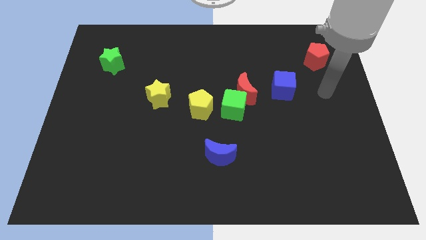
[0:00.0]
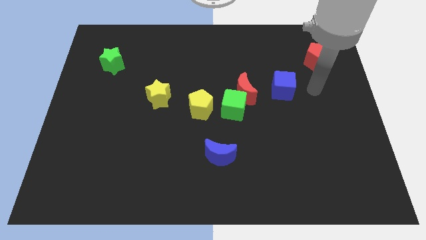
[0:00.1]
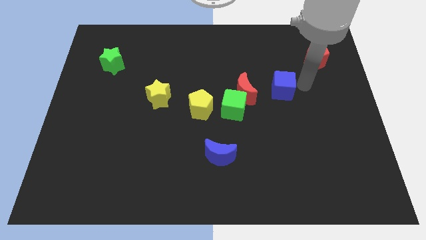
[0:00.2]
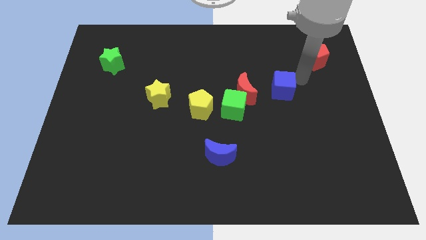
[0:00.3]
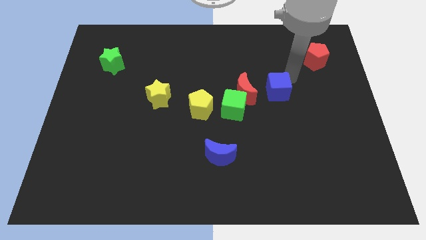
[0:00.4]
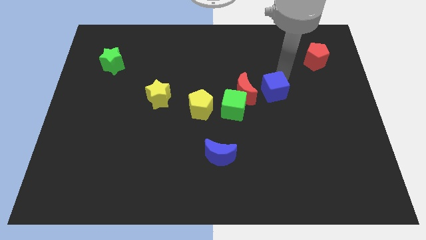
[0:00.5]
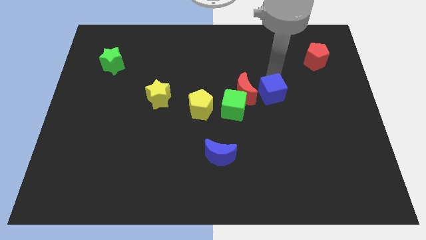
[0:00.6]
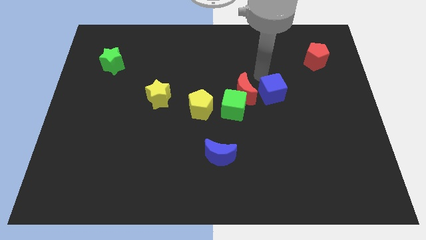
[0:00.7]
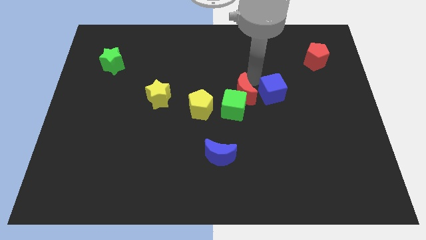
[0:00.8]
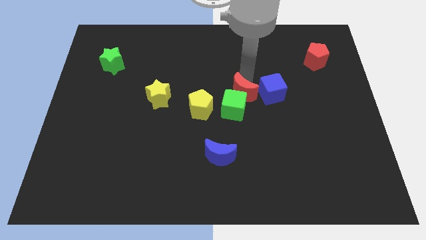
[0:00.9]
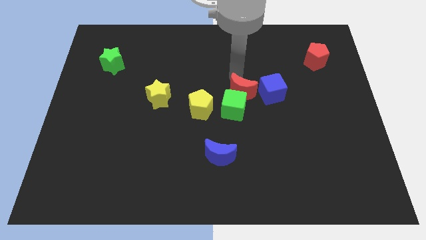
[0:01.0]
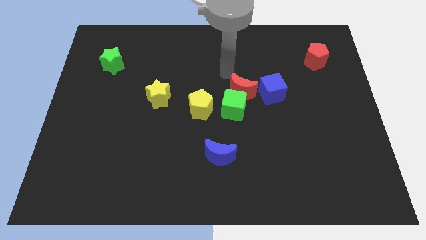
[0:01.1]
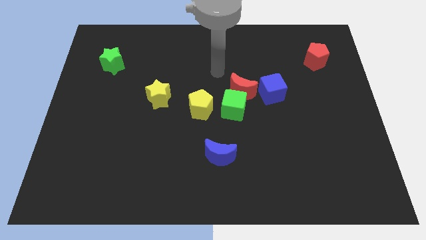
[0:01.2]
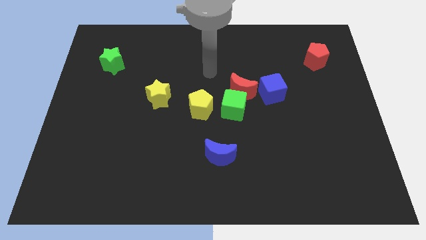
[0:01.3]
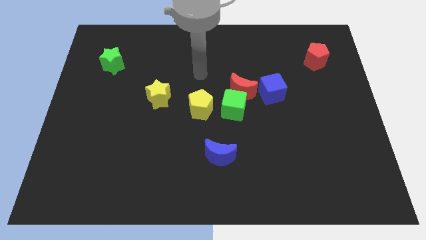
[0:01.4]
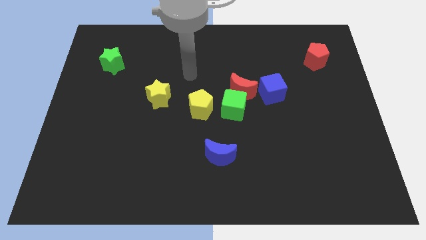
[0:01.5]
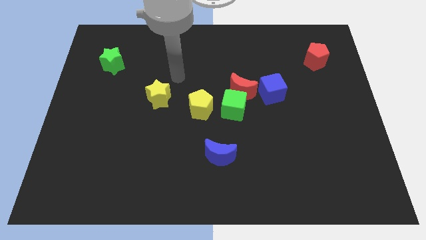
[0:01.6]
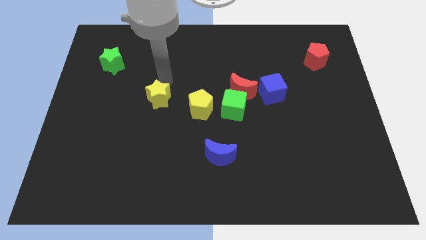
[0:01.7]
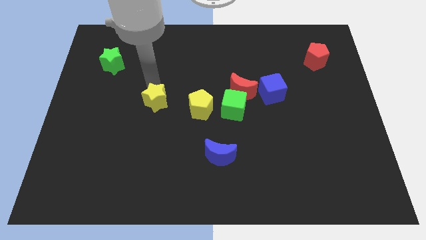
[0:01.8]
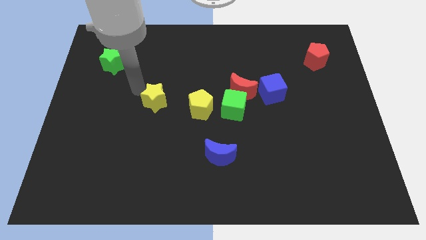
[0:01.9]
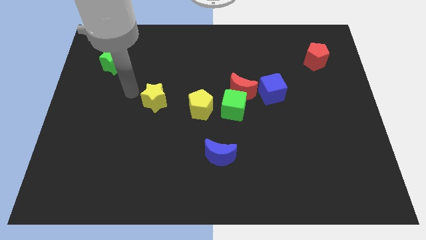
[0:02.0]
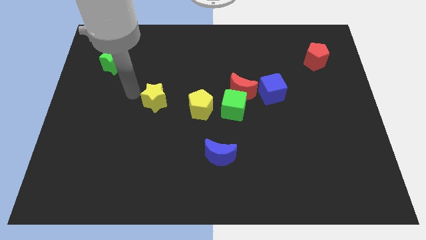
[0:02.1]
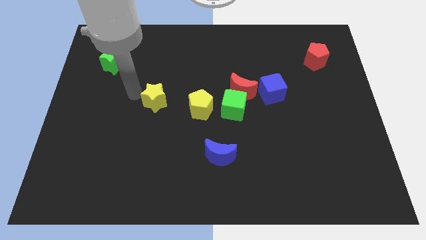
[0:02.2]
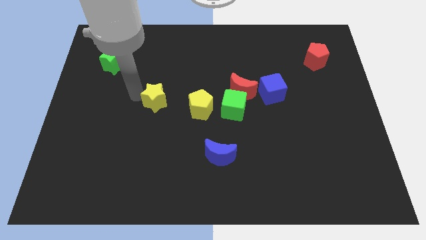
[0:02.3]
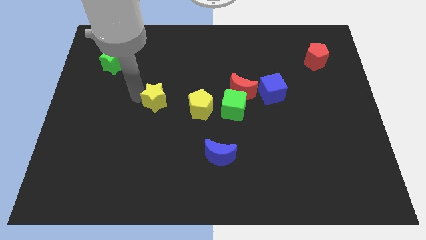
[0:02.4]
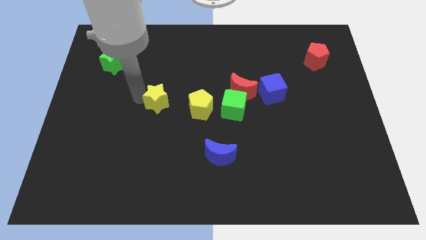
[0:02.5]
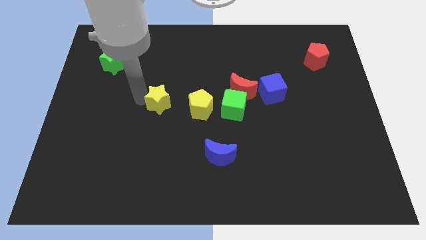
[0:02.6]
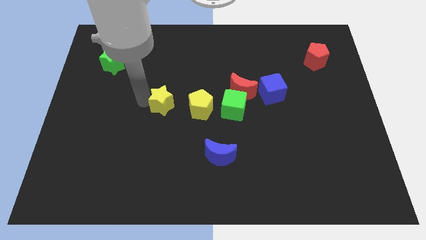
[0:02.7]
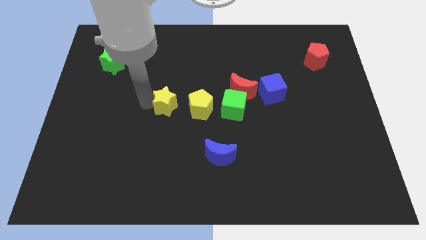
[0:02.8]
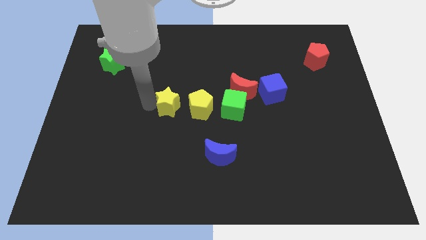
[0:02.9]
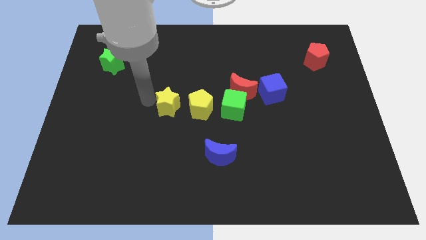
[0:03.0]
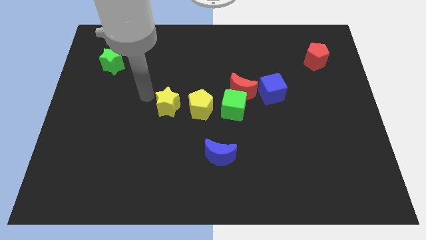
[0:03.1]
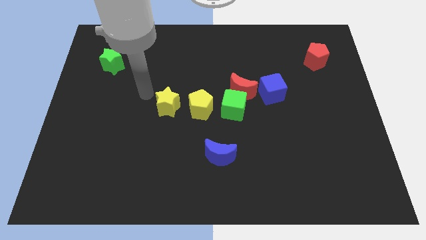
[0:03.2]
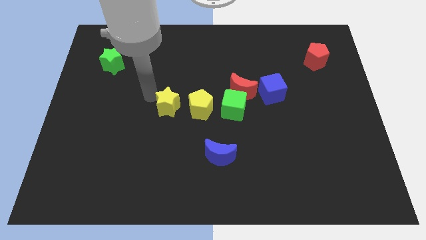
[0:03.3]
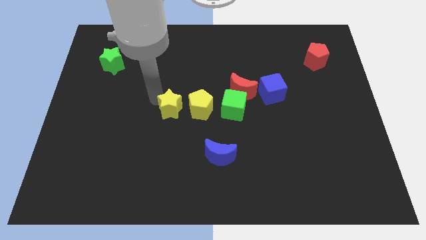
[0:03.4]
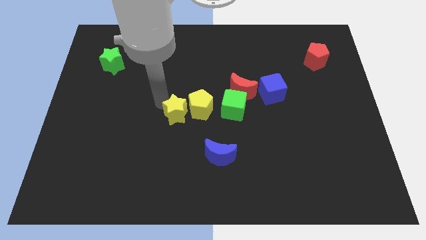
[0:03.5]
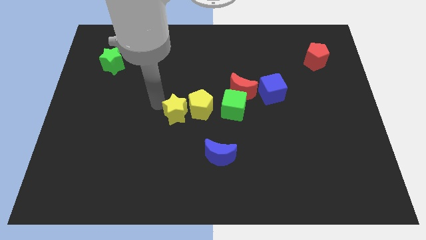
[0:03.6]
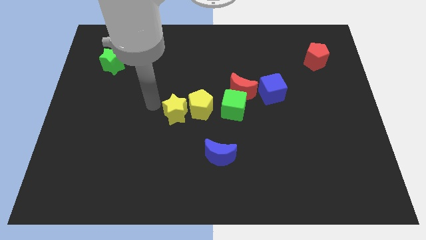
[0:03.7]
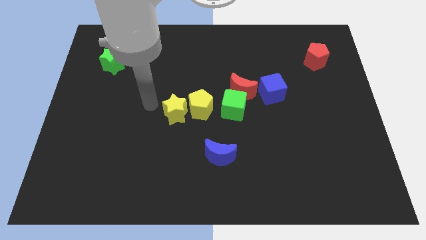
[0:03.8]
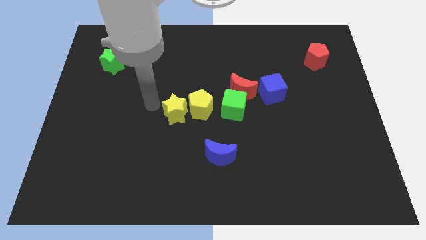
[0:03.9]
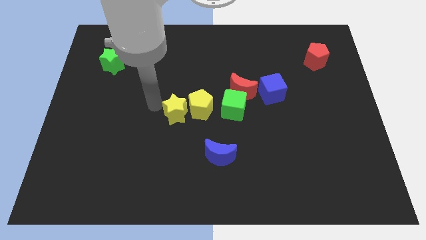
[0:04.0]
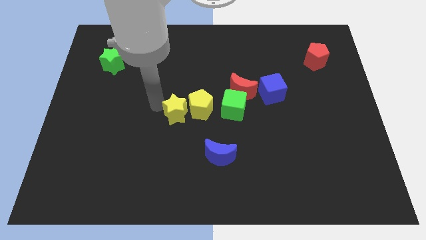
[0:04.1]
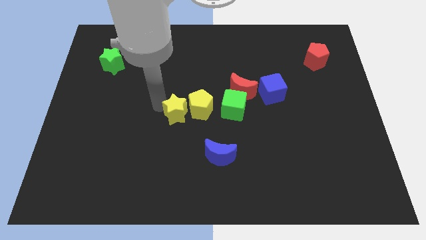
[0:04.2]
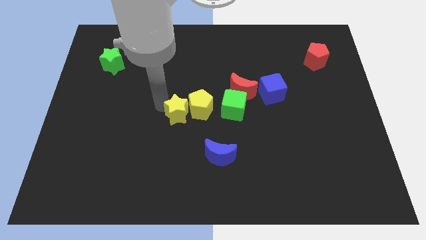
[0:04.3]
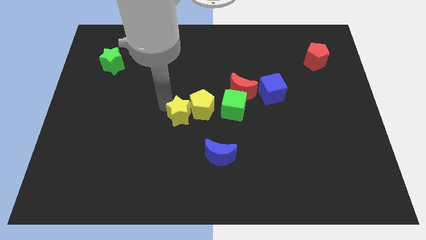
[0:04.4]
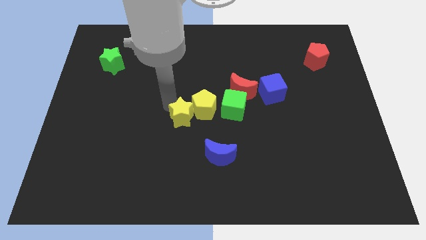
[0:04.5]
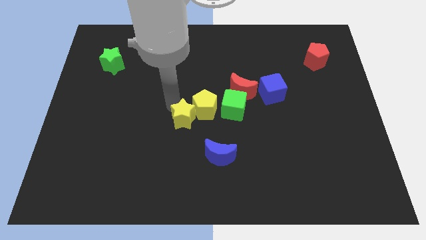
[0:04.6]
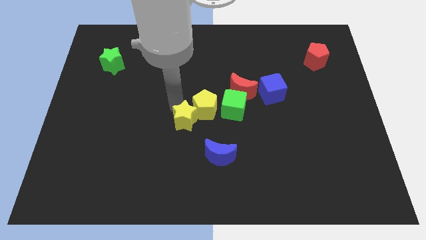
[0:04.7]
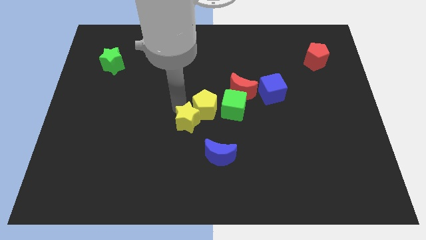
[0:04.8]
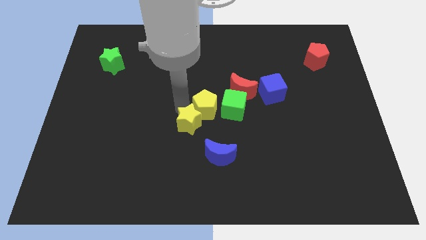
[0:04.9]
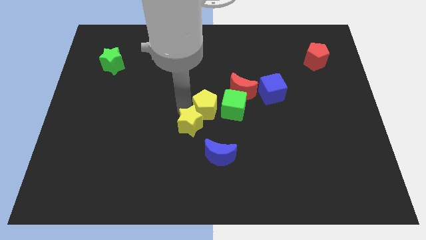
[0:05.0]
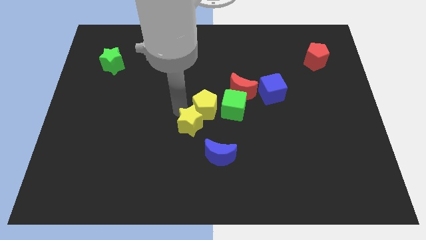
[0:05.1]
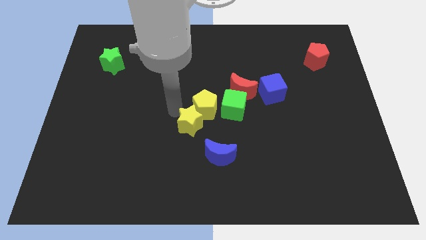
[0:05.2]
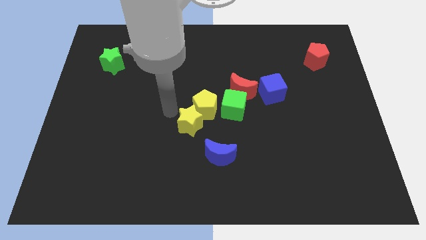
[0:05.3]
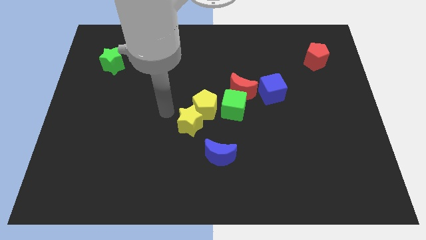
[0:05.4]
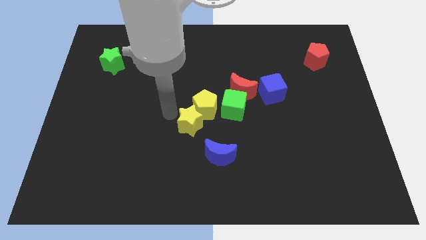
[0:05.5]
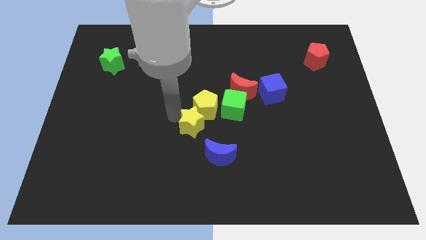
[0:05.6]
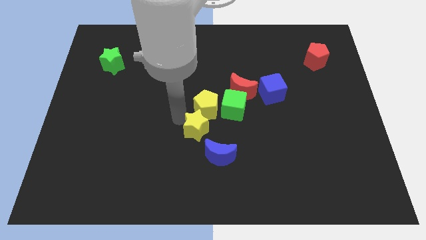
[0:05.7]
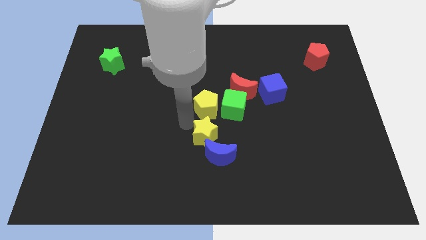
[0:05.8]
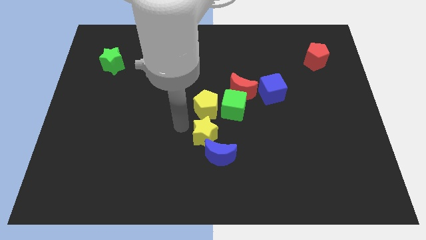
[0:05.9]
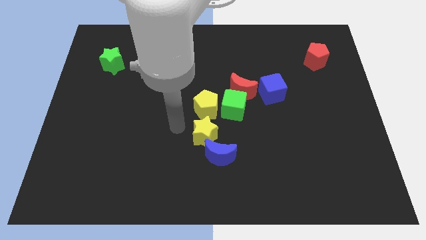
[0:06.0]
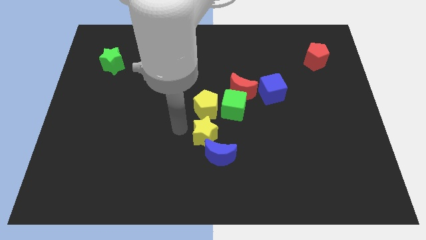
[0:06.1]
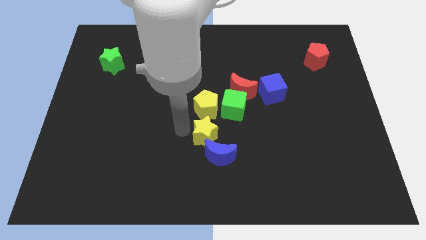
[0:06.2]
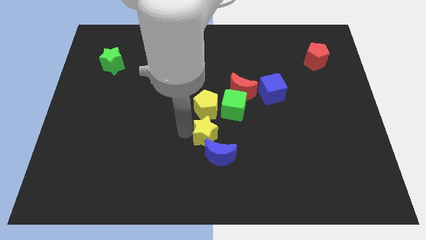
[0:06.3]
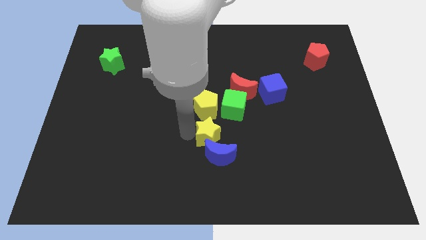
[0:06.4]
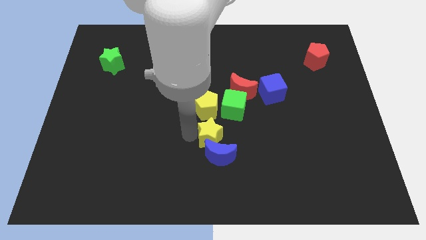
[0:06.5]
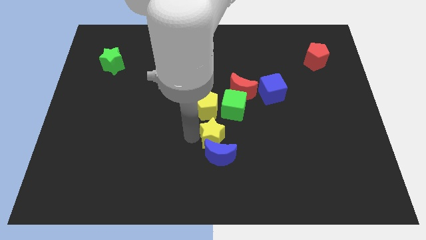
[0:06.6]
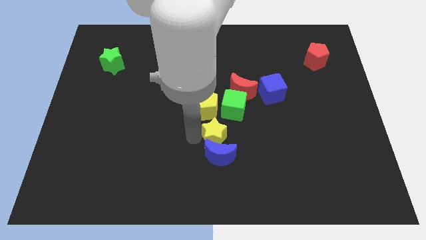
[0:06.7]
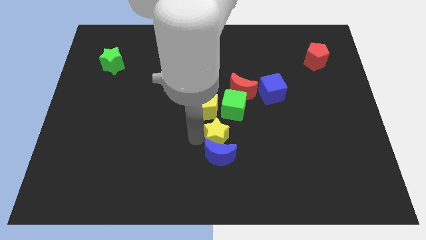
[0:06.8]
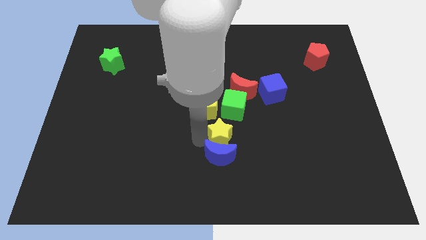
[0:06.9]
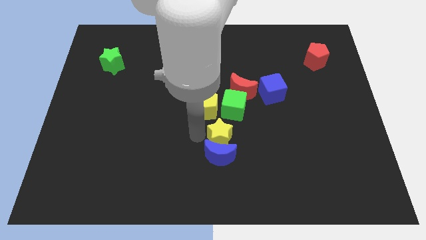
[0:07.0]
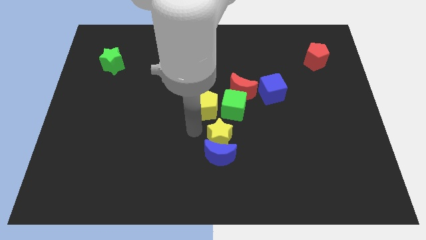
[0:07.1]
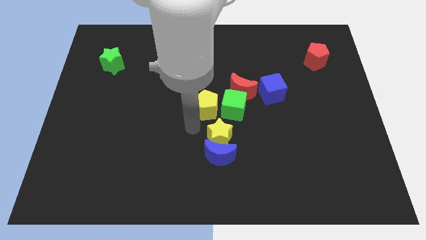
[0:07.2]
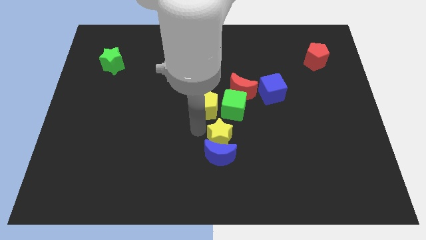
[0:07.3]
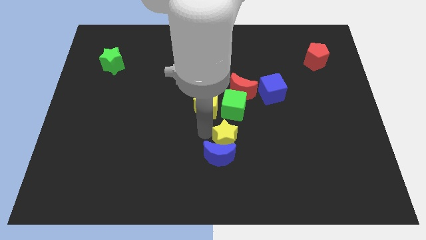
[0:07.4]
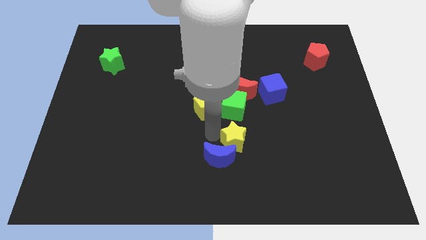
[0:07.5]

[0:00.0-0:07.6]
put the yellow star to the right of the blue moon
